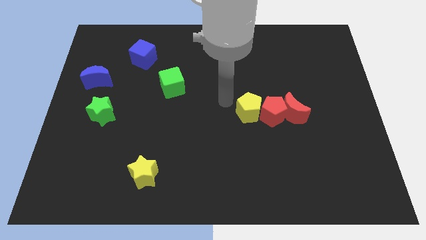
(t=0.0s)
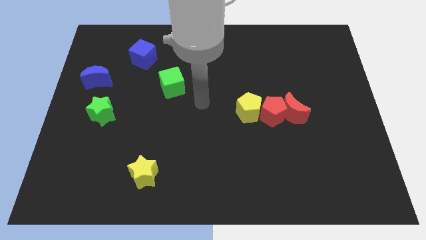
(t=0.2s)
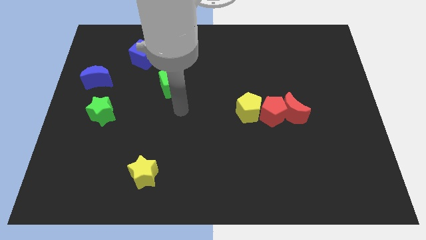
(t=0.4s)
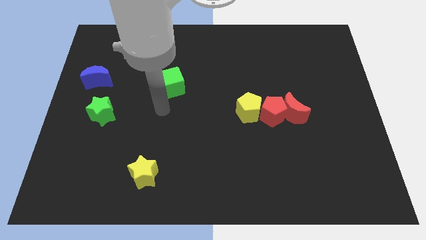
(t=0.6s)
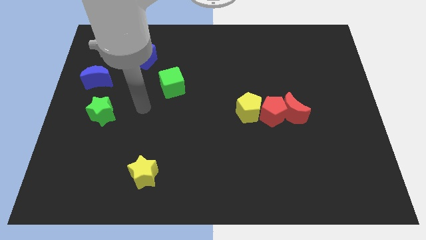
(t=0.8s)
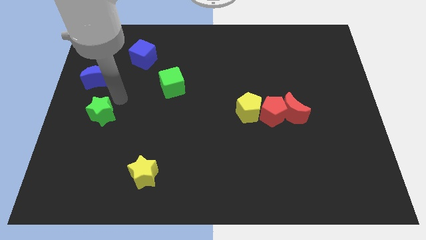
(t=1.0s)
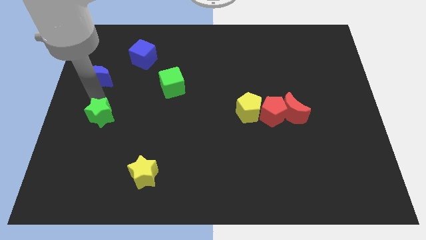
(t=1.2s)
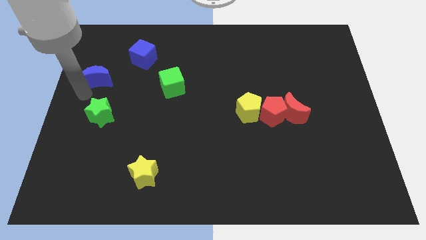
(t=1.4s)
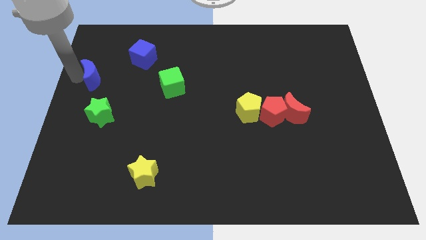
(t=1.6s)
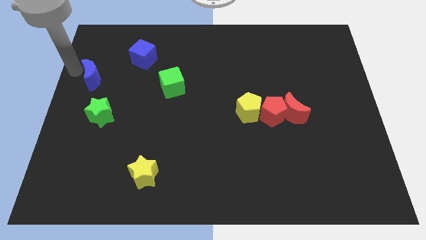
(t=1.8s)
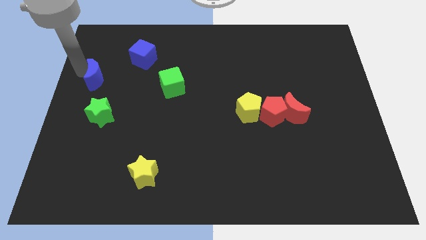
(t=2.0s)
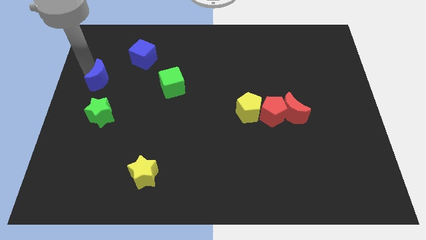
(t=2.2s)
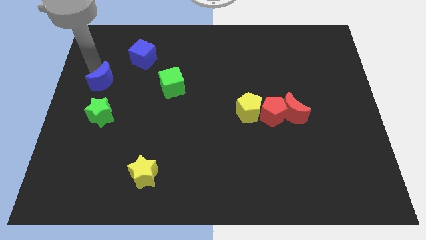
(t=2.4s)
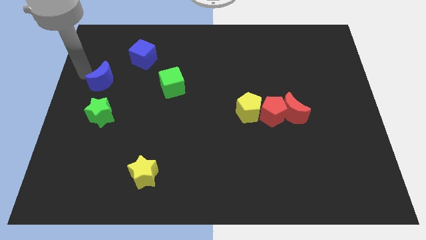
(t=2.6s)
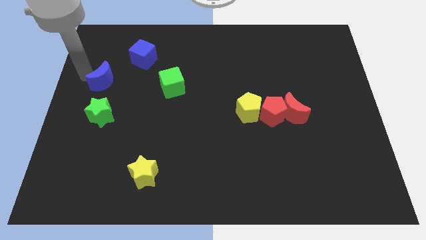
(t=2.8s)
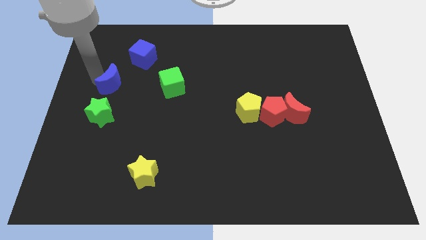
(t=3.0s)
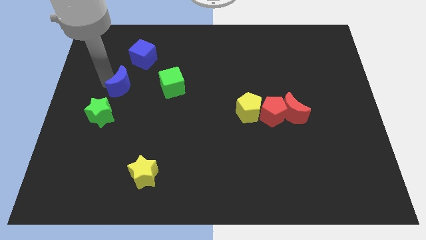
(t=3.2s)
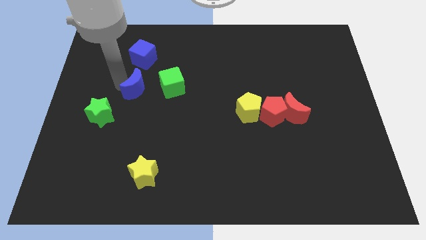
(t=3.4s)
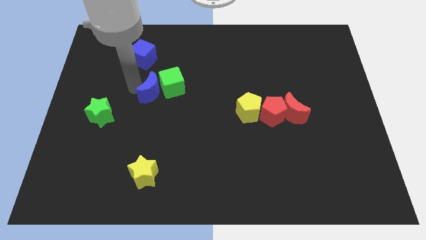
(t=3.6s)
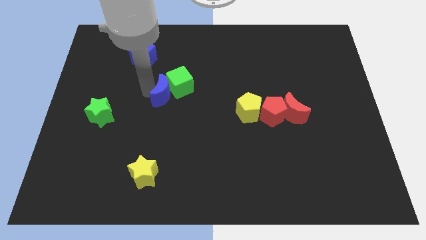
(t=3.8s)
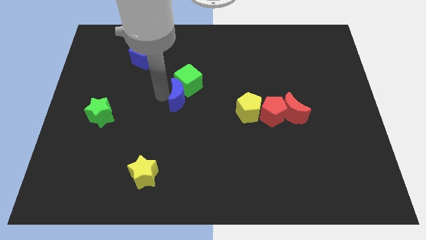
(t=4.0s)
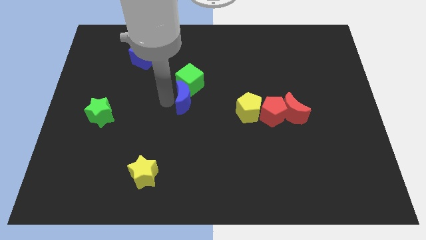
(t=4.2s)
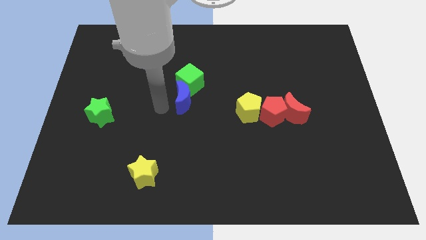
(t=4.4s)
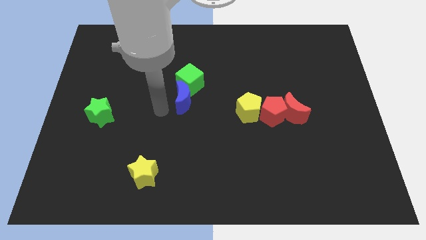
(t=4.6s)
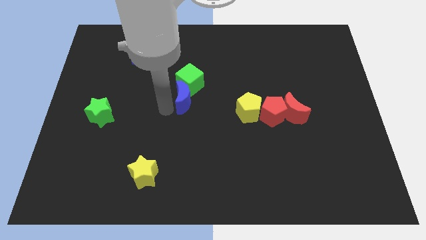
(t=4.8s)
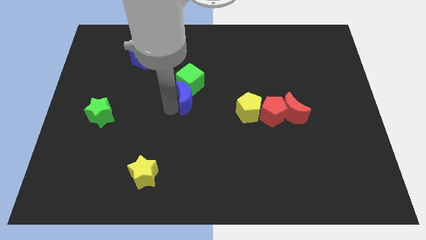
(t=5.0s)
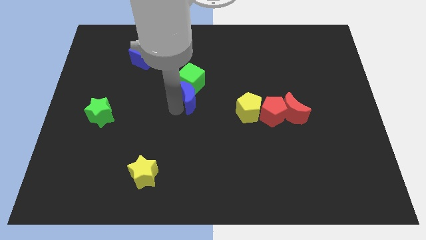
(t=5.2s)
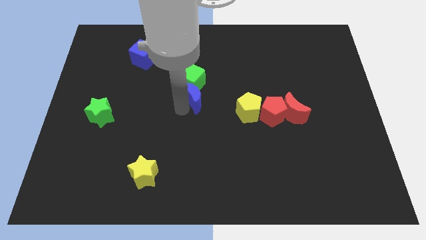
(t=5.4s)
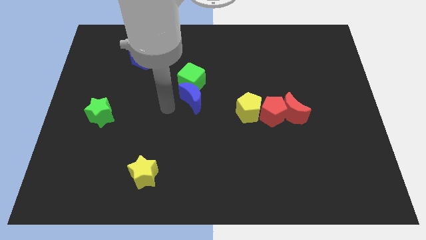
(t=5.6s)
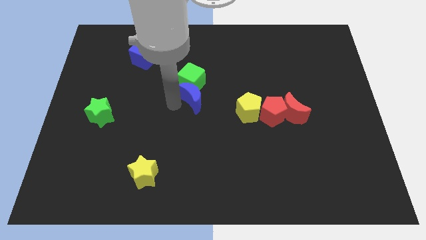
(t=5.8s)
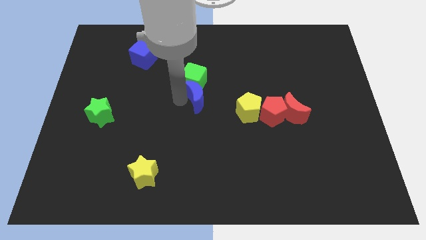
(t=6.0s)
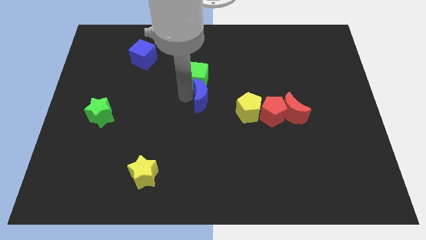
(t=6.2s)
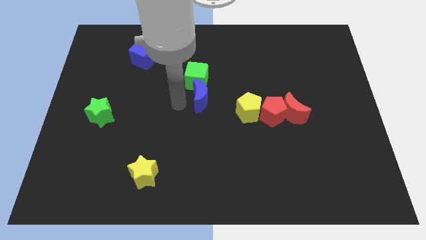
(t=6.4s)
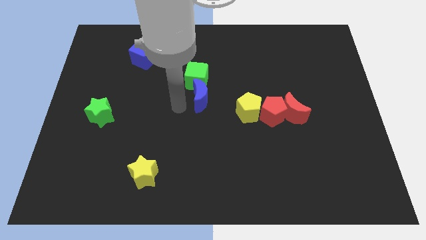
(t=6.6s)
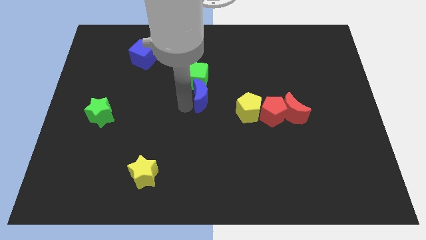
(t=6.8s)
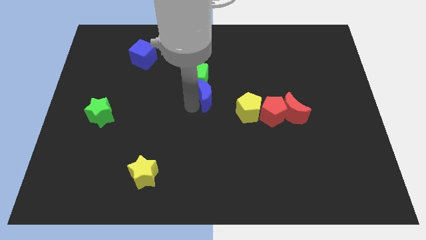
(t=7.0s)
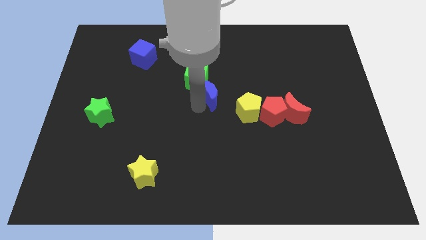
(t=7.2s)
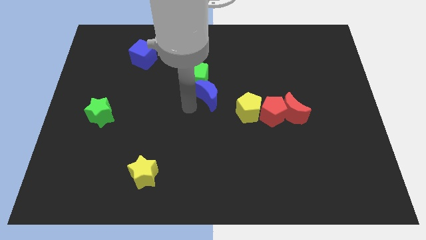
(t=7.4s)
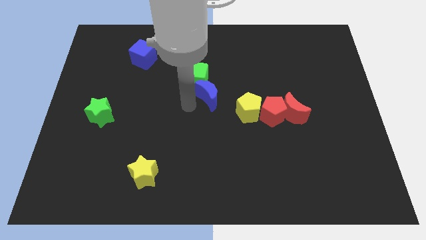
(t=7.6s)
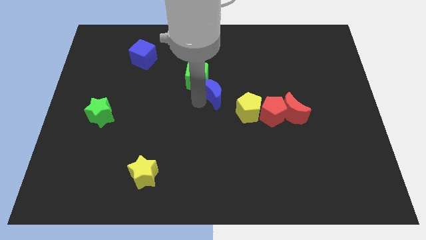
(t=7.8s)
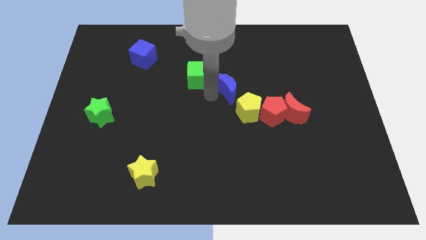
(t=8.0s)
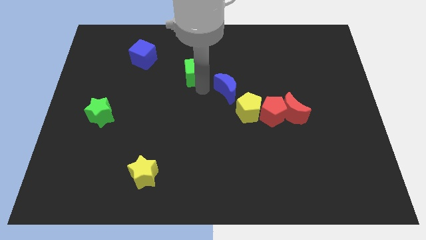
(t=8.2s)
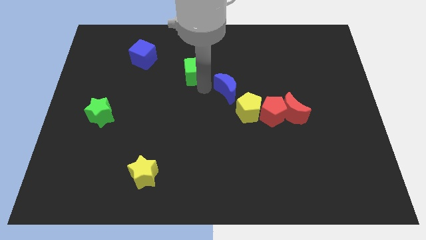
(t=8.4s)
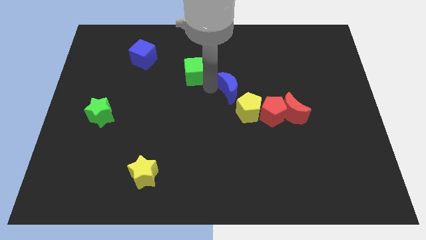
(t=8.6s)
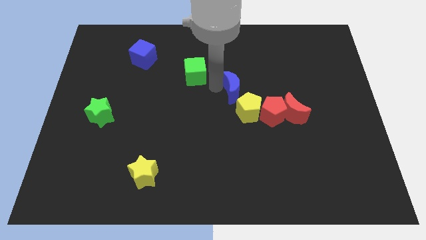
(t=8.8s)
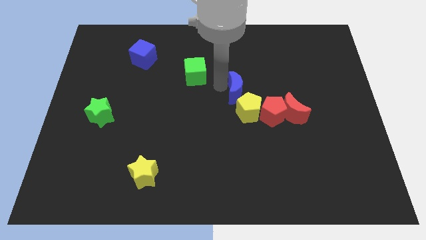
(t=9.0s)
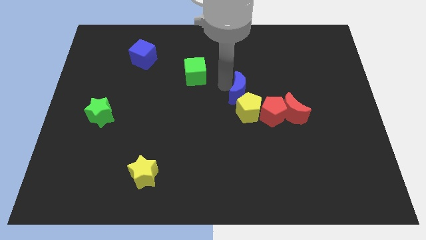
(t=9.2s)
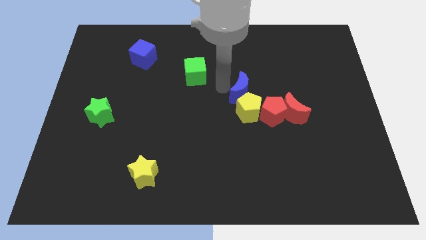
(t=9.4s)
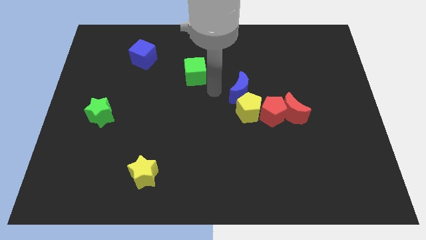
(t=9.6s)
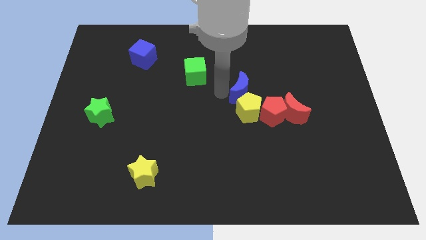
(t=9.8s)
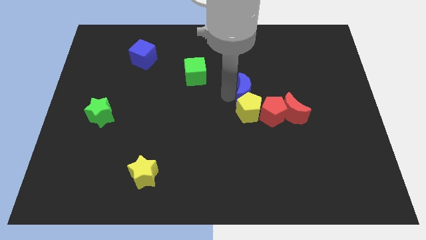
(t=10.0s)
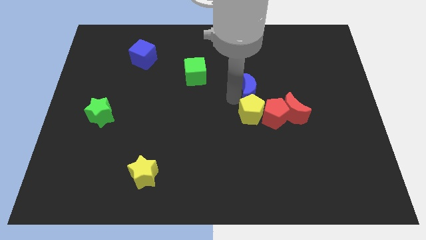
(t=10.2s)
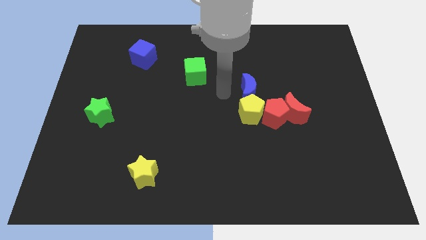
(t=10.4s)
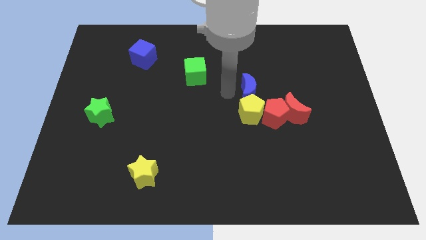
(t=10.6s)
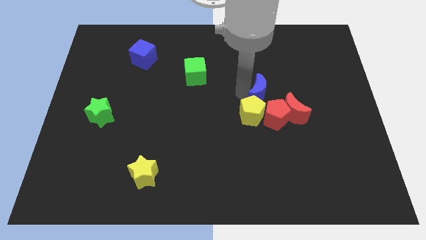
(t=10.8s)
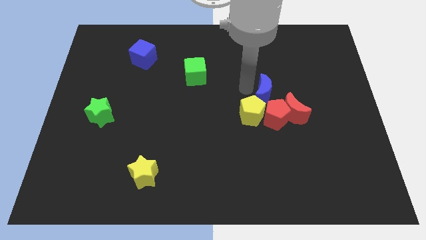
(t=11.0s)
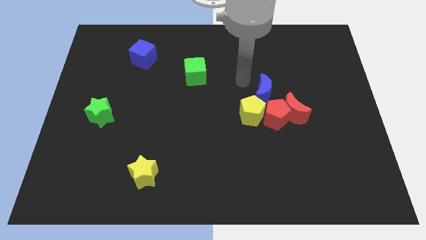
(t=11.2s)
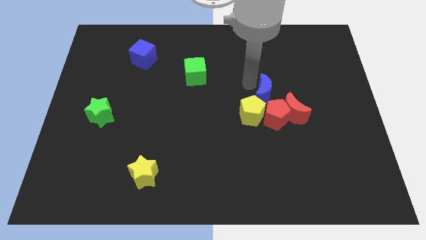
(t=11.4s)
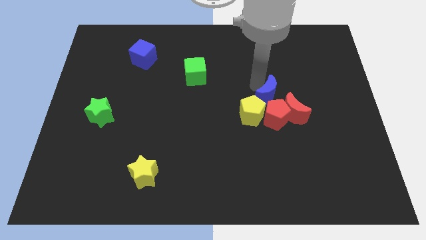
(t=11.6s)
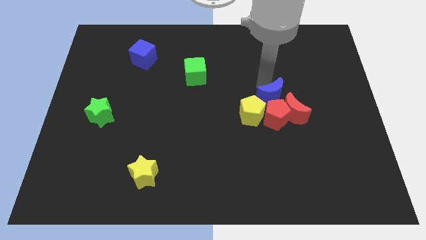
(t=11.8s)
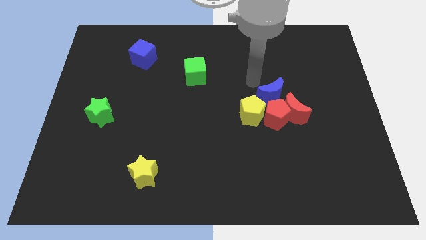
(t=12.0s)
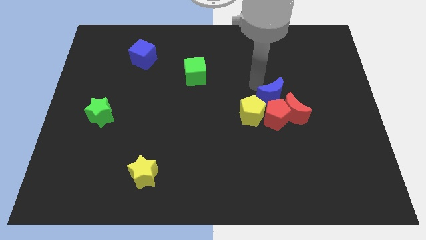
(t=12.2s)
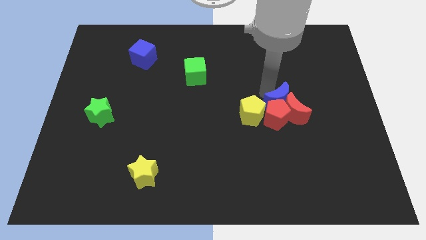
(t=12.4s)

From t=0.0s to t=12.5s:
slide the blue moon to the red moon

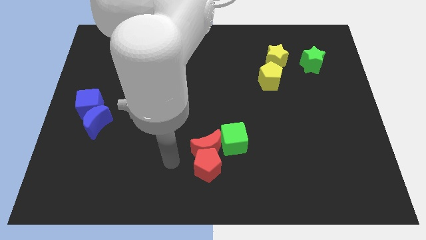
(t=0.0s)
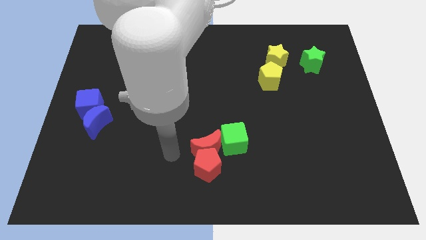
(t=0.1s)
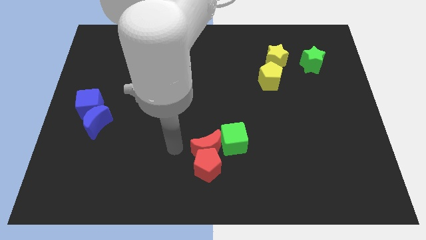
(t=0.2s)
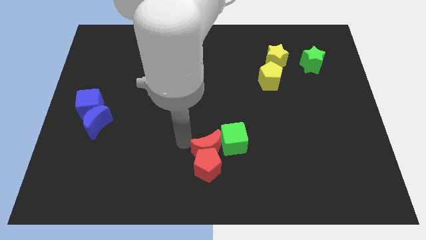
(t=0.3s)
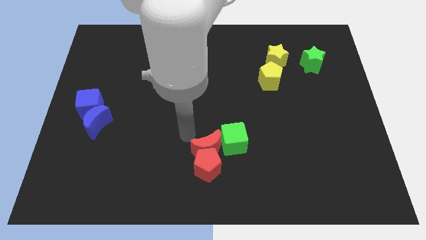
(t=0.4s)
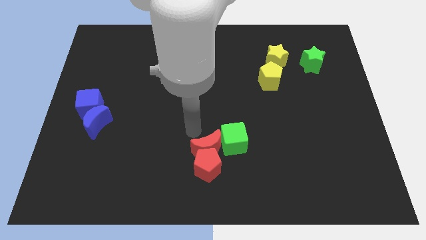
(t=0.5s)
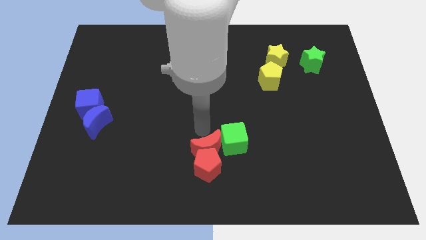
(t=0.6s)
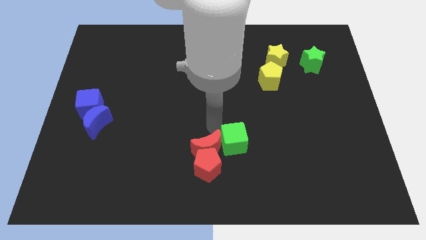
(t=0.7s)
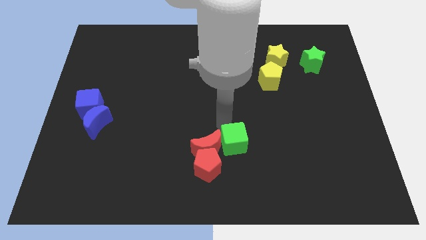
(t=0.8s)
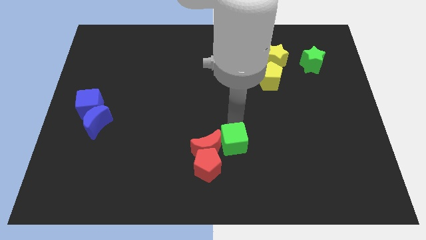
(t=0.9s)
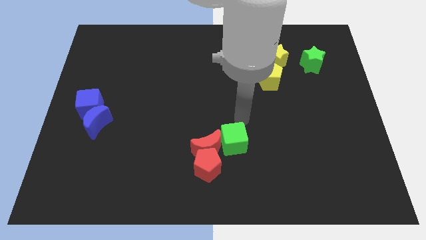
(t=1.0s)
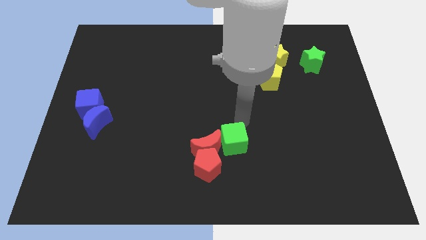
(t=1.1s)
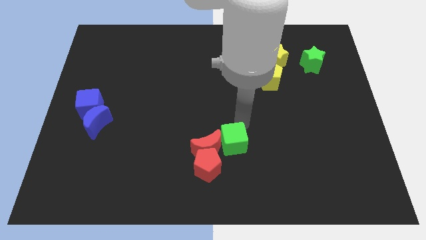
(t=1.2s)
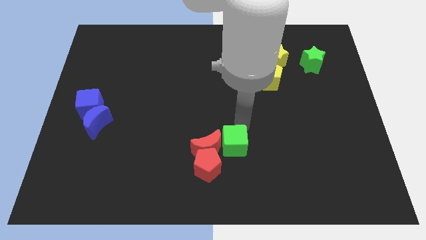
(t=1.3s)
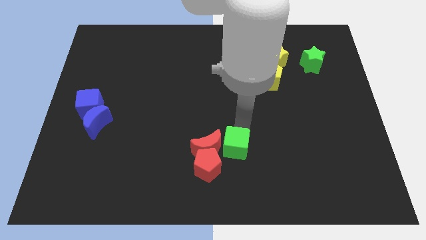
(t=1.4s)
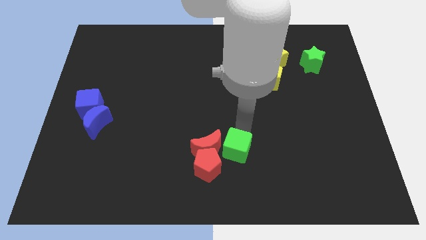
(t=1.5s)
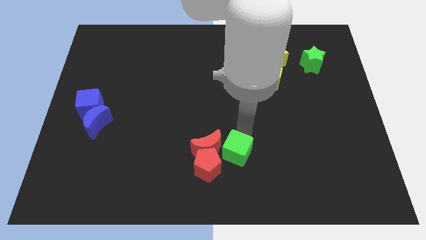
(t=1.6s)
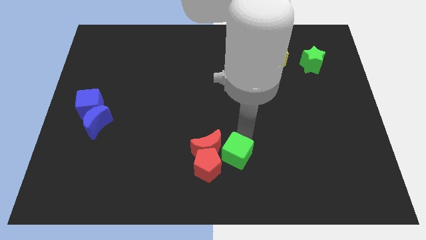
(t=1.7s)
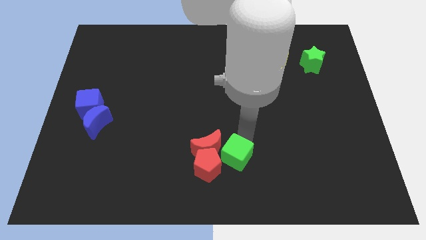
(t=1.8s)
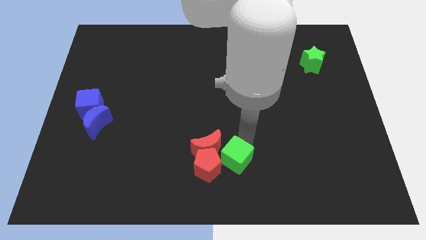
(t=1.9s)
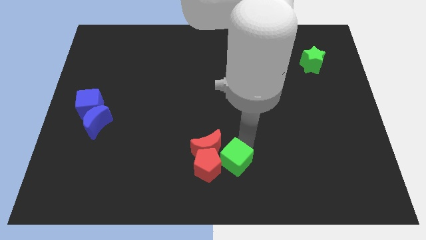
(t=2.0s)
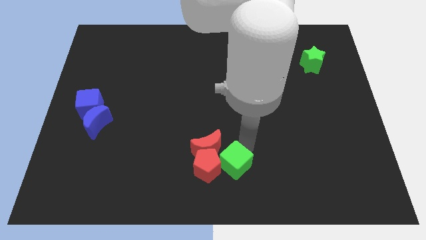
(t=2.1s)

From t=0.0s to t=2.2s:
push the green cube next to the red pentagon
